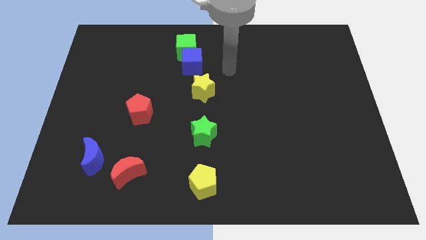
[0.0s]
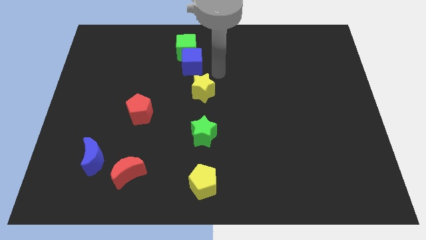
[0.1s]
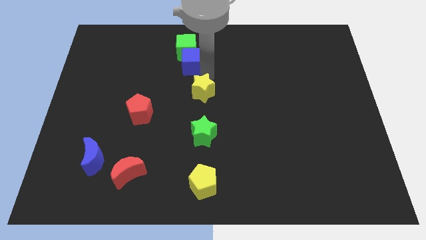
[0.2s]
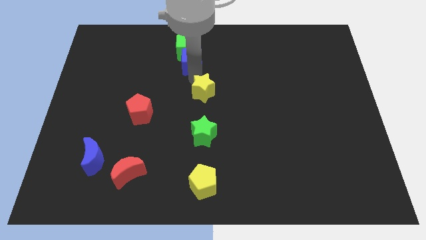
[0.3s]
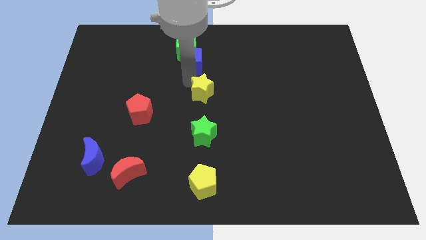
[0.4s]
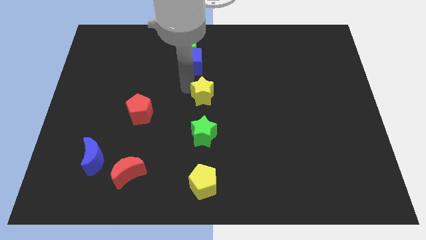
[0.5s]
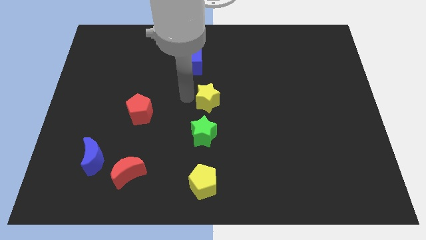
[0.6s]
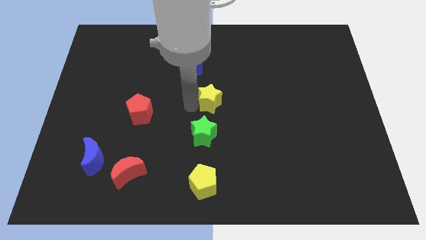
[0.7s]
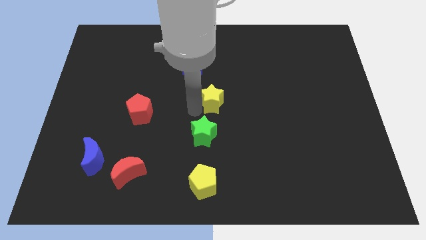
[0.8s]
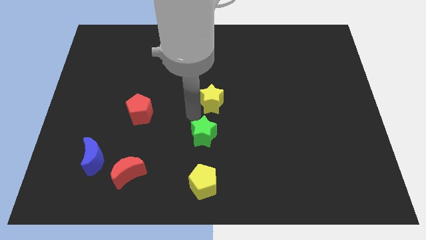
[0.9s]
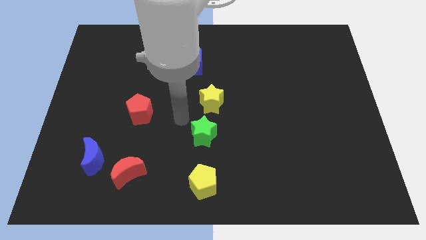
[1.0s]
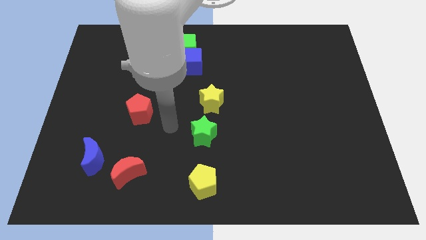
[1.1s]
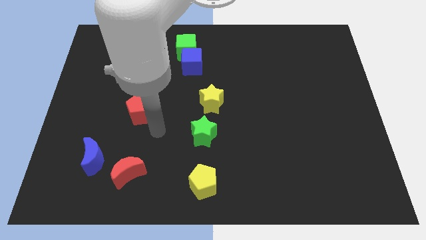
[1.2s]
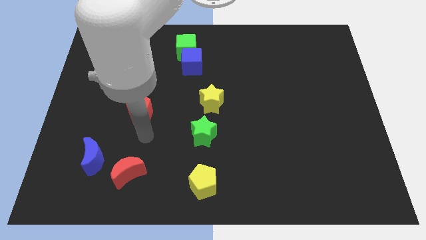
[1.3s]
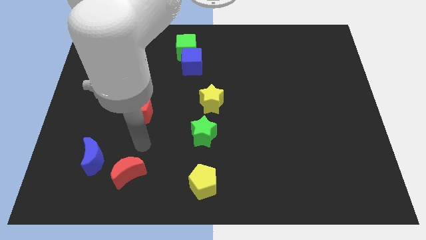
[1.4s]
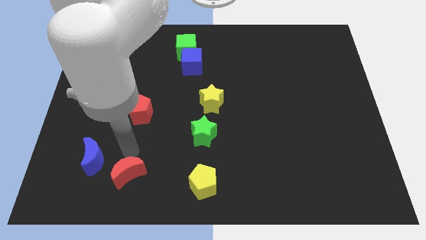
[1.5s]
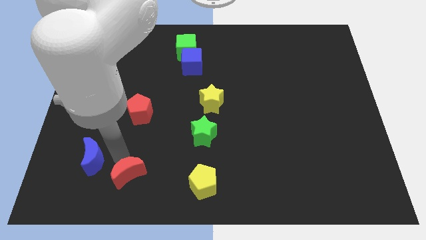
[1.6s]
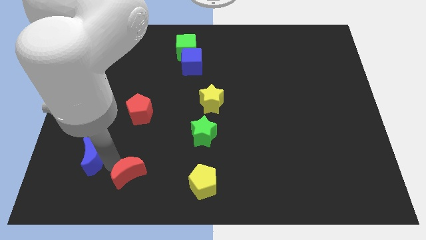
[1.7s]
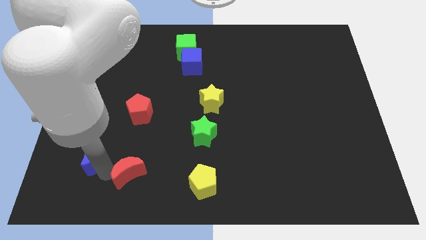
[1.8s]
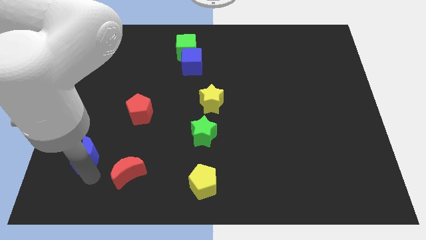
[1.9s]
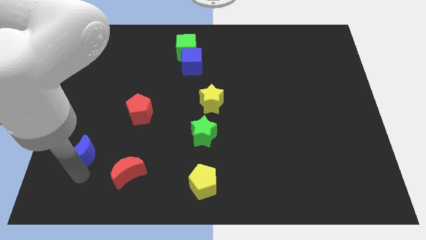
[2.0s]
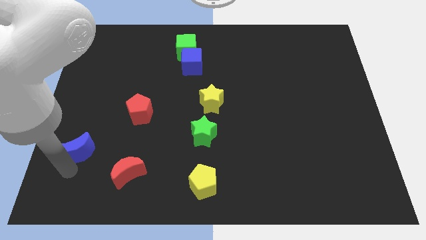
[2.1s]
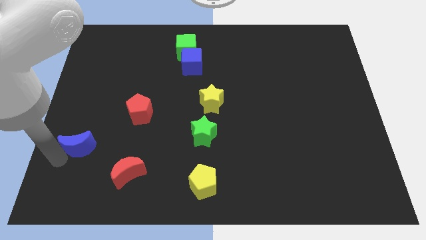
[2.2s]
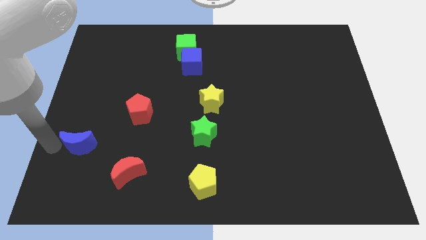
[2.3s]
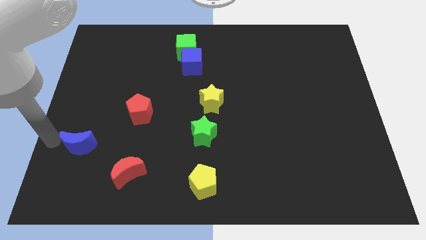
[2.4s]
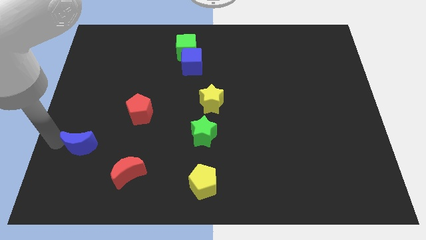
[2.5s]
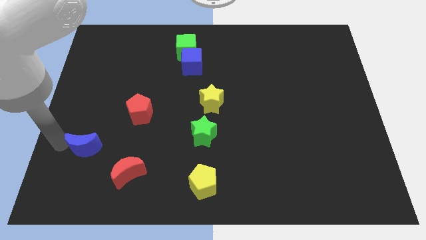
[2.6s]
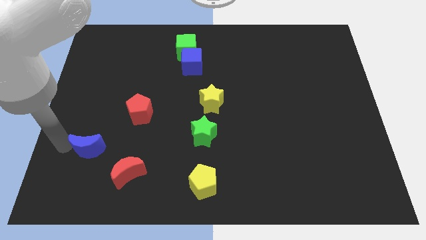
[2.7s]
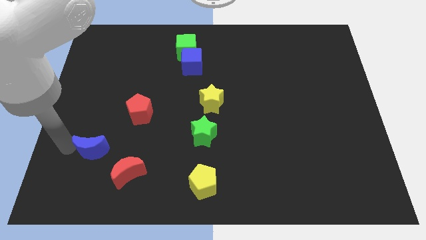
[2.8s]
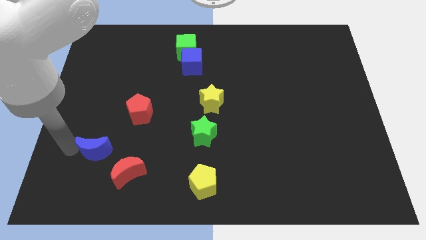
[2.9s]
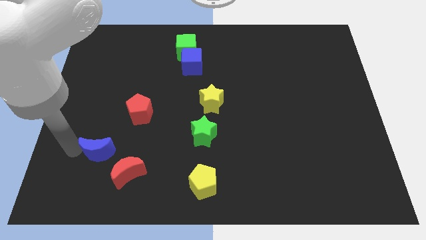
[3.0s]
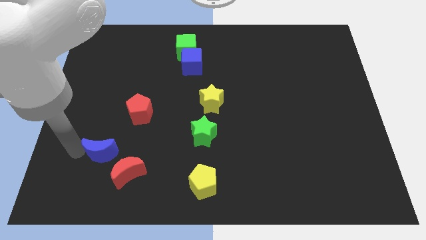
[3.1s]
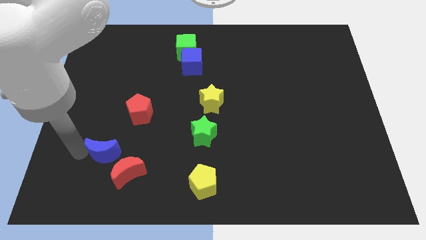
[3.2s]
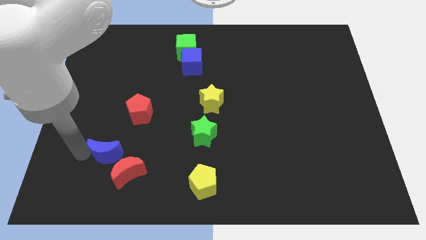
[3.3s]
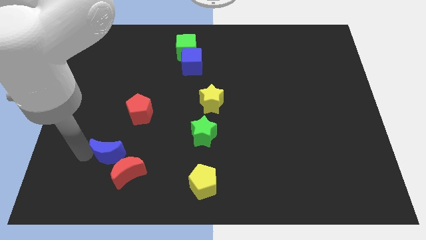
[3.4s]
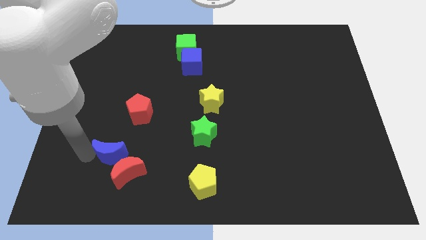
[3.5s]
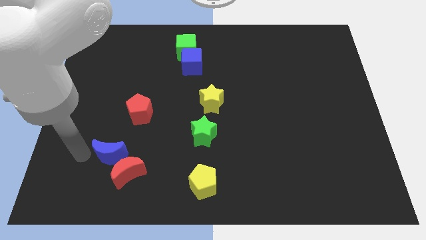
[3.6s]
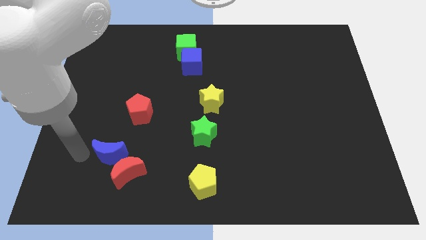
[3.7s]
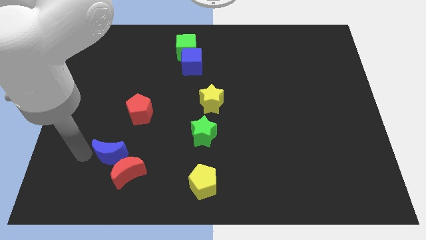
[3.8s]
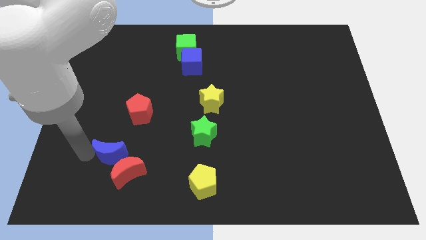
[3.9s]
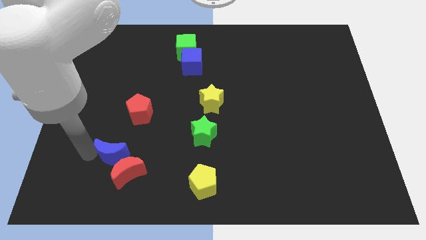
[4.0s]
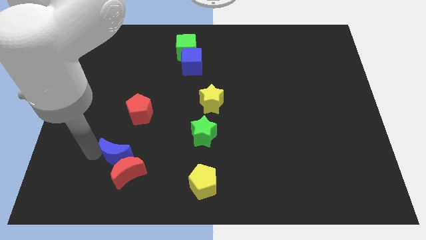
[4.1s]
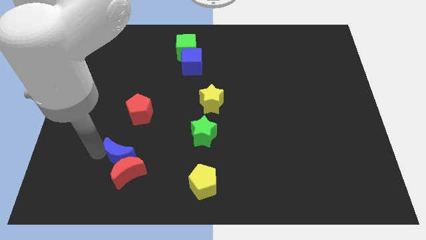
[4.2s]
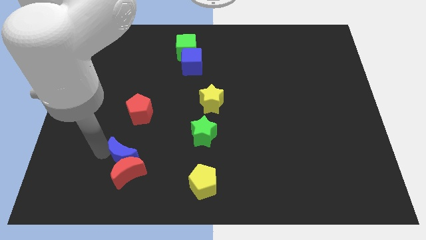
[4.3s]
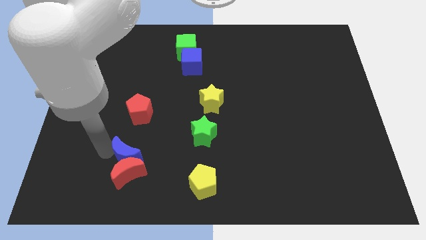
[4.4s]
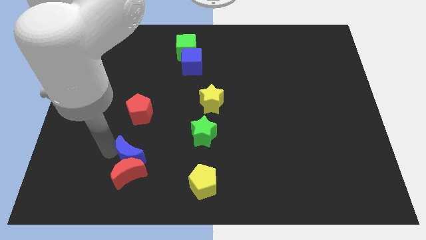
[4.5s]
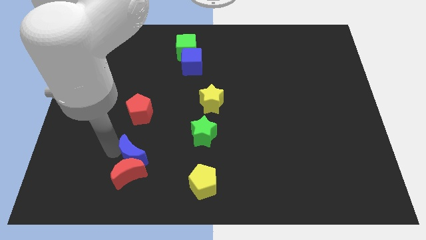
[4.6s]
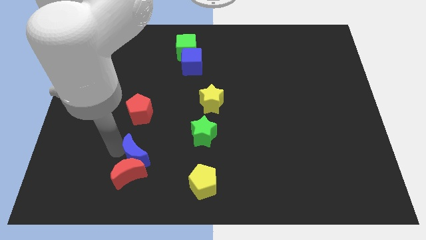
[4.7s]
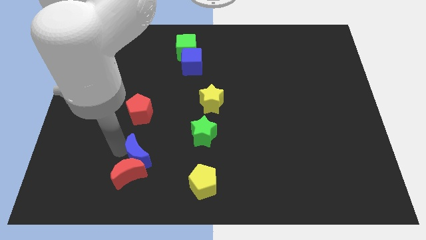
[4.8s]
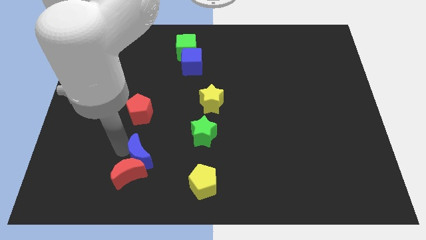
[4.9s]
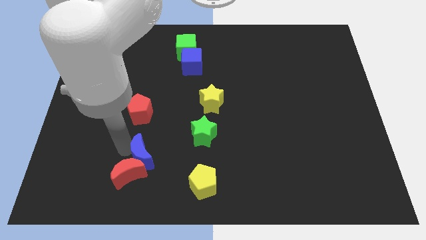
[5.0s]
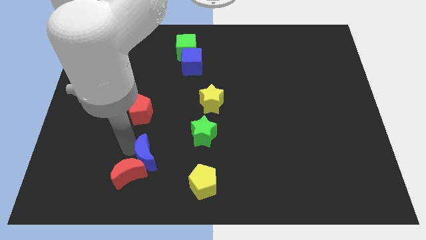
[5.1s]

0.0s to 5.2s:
move the blue moon to the right of the red moon

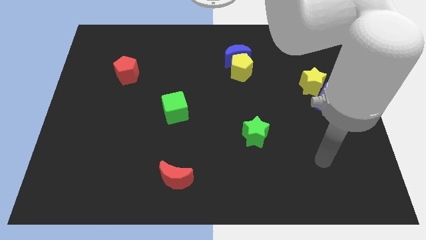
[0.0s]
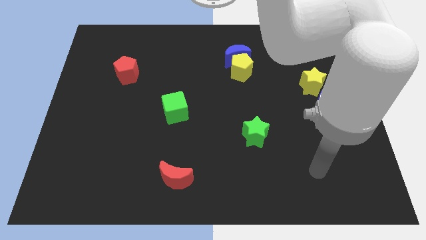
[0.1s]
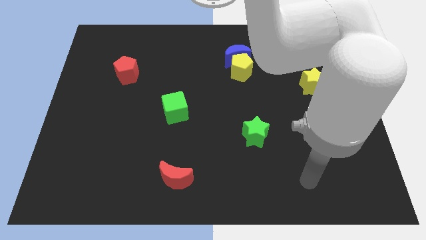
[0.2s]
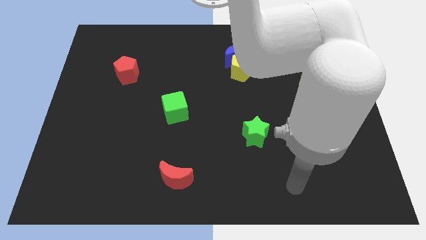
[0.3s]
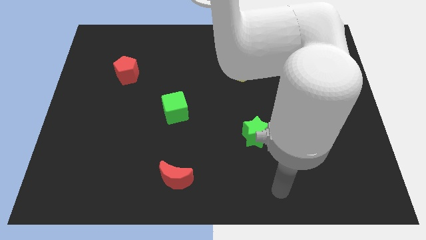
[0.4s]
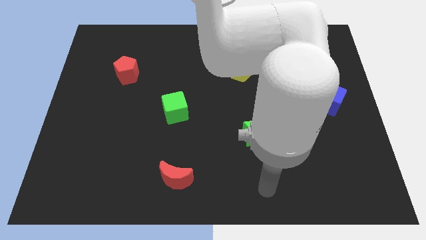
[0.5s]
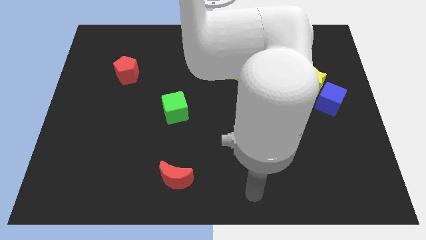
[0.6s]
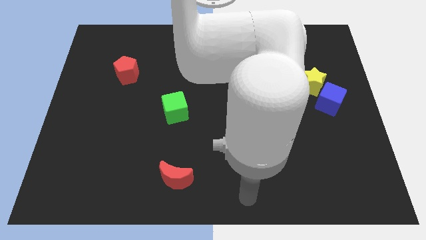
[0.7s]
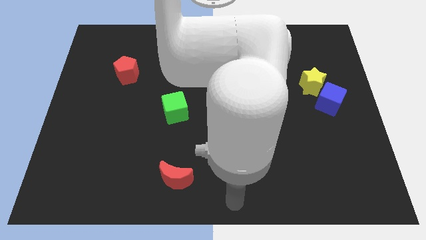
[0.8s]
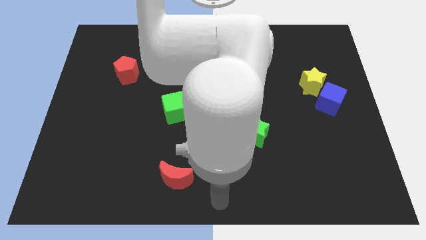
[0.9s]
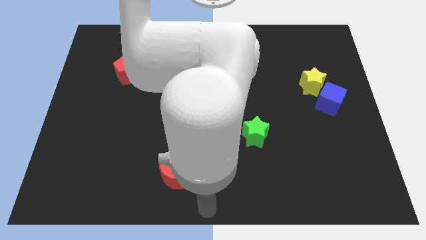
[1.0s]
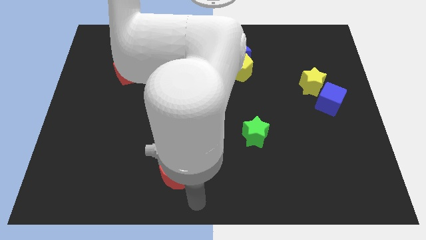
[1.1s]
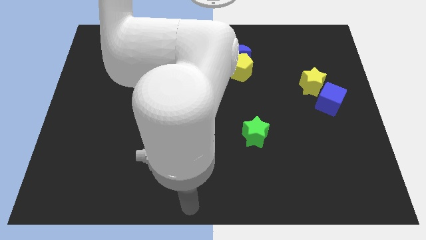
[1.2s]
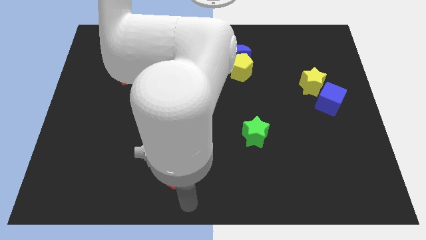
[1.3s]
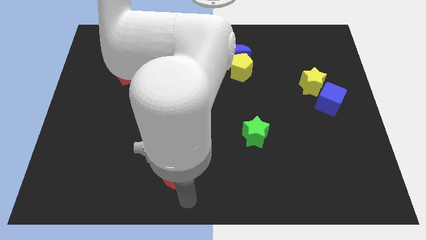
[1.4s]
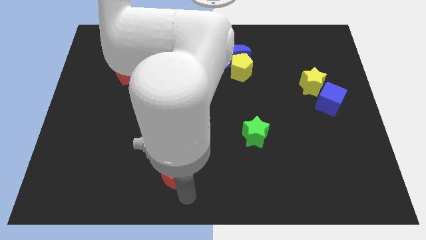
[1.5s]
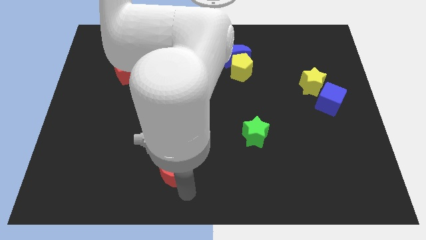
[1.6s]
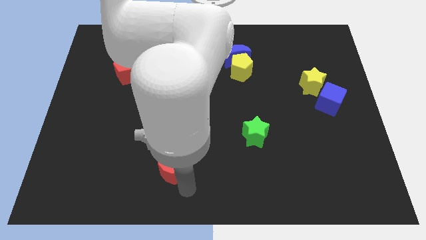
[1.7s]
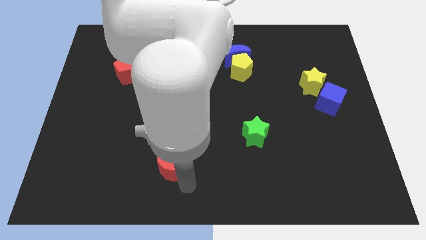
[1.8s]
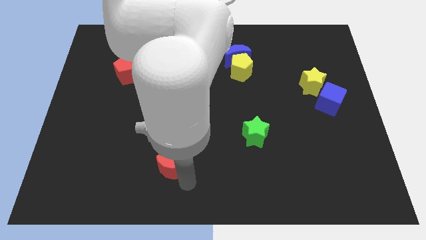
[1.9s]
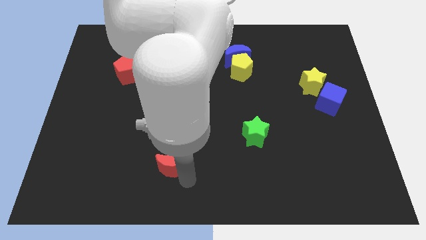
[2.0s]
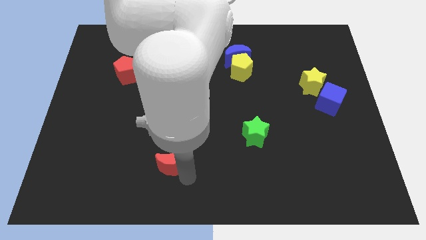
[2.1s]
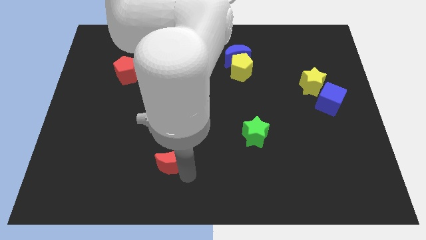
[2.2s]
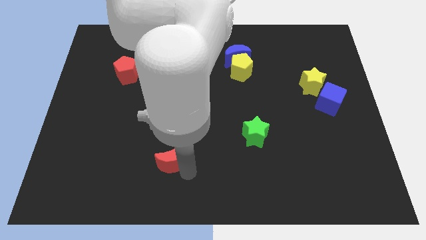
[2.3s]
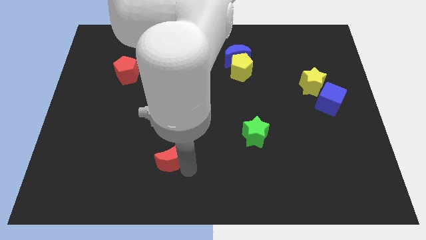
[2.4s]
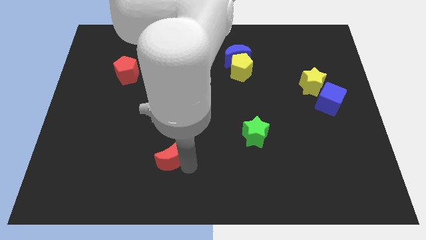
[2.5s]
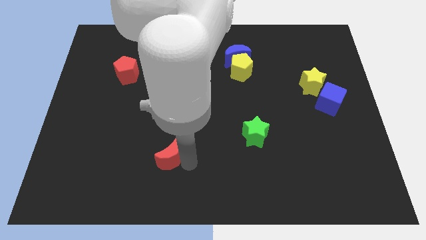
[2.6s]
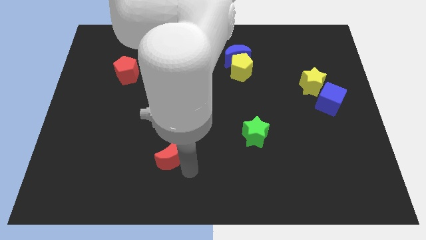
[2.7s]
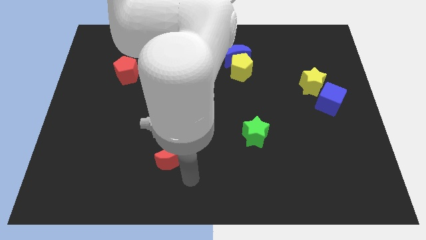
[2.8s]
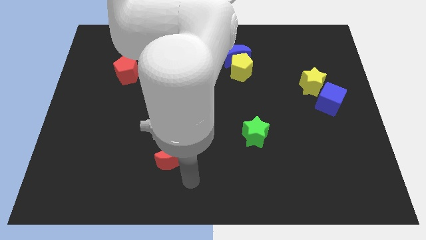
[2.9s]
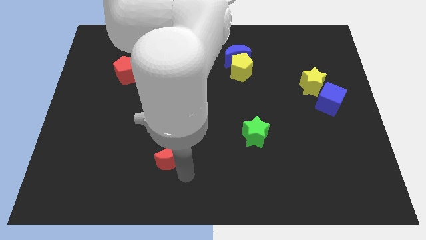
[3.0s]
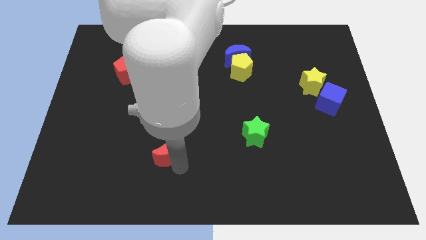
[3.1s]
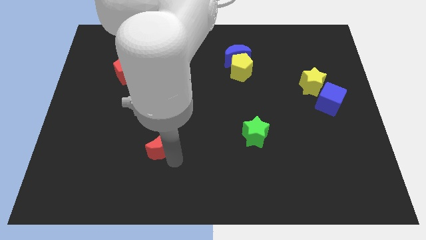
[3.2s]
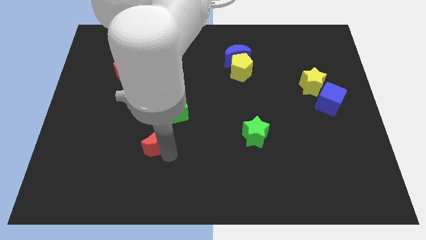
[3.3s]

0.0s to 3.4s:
slide the red moon diagonally down and to the left of the green cube
